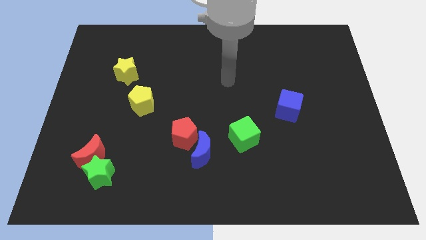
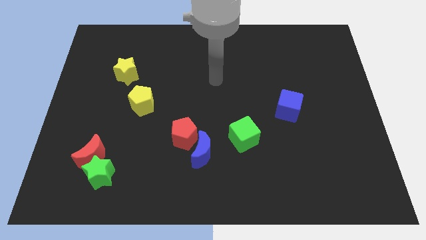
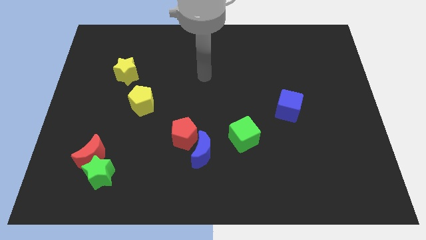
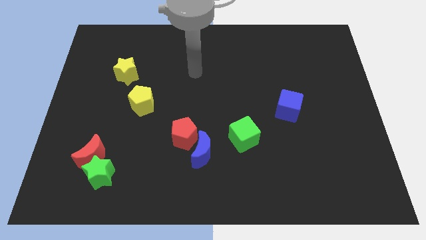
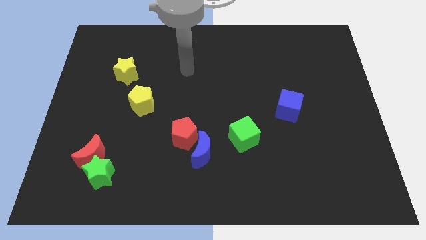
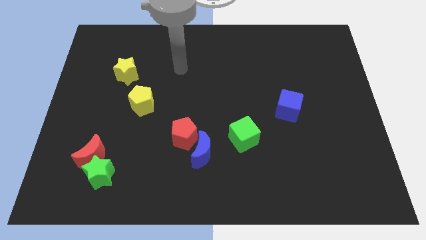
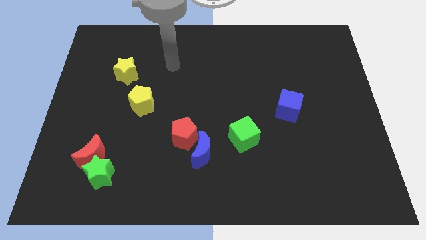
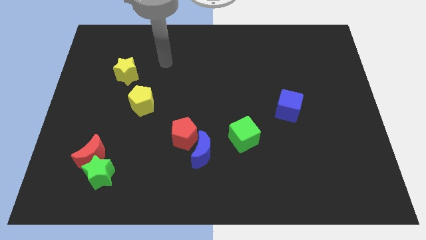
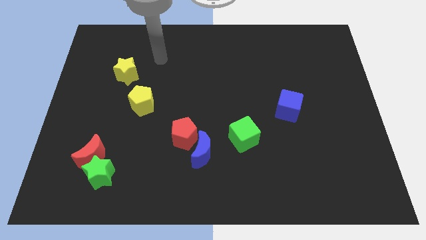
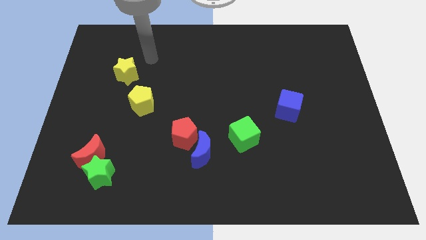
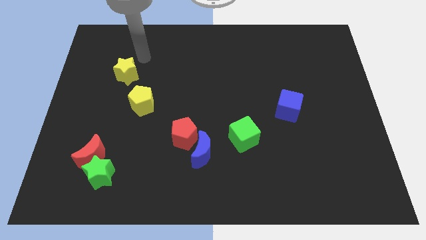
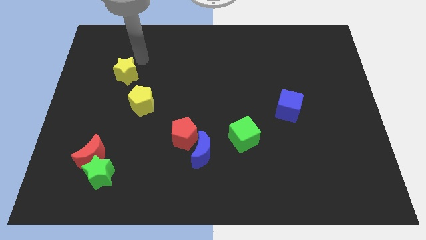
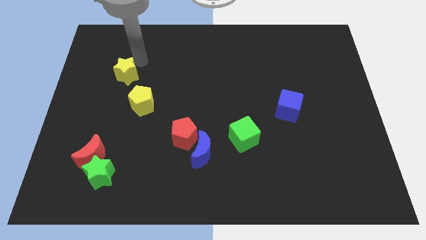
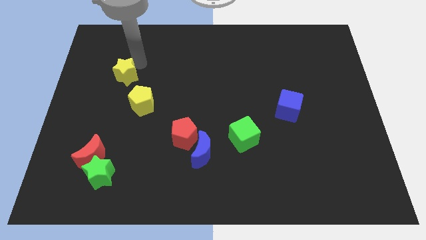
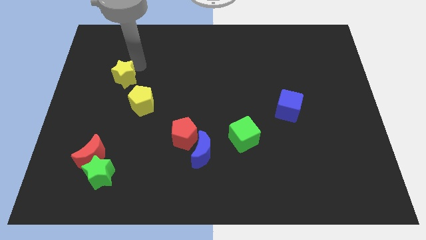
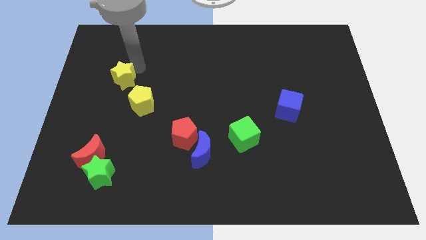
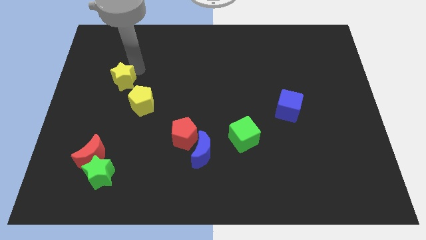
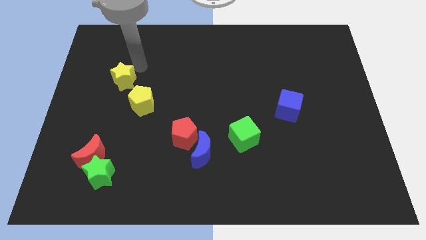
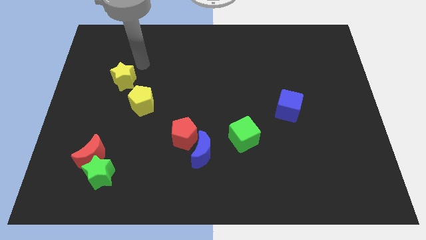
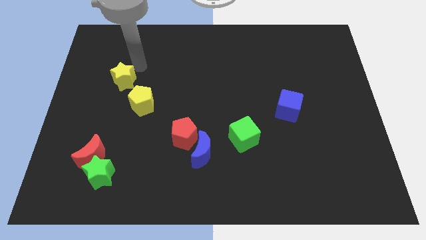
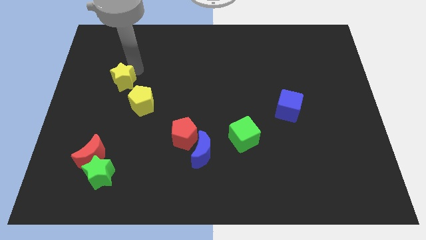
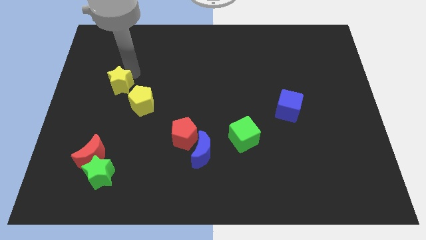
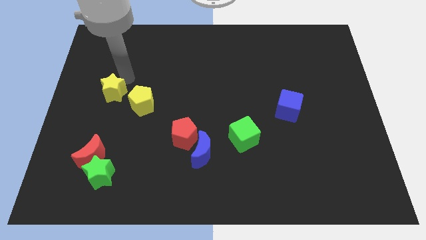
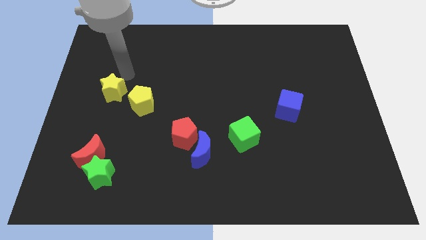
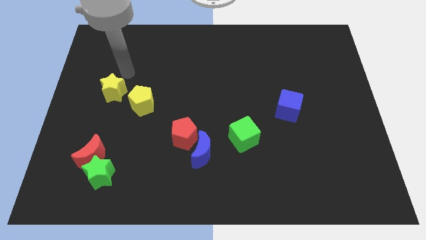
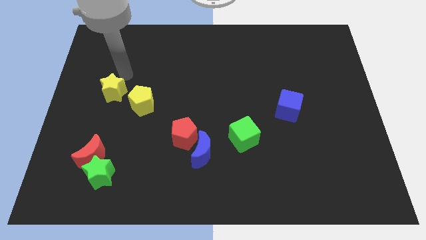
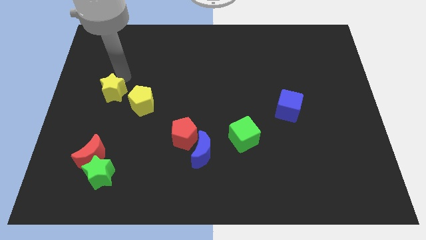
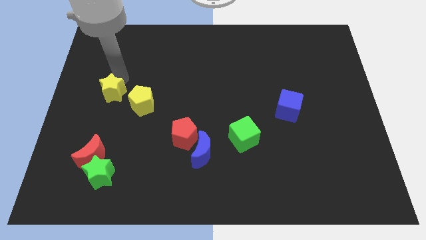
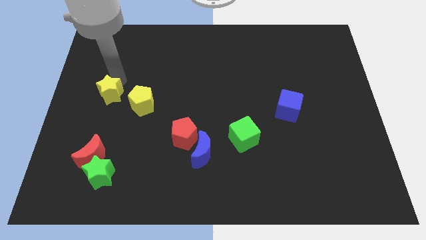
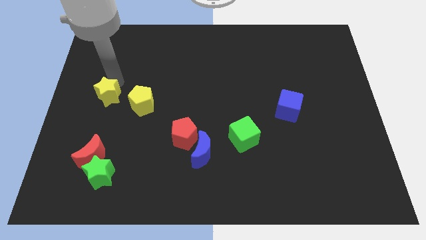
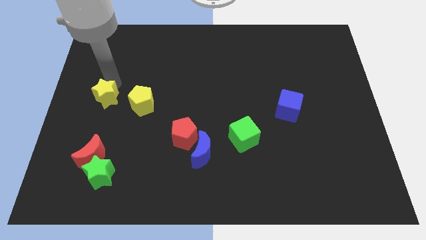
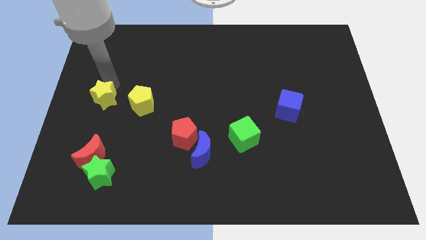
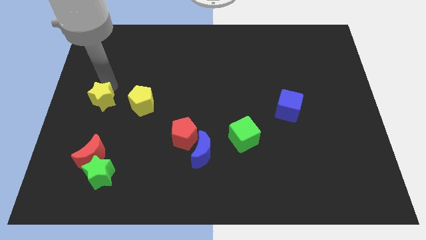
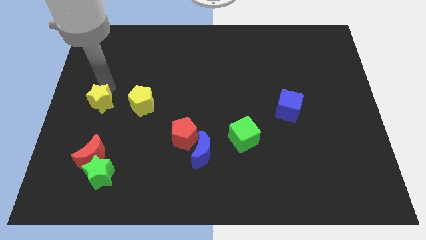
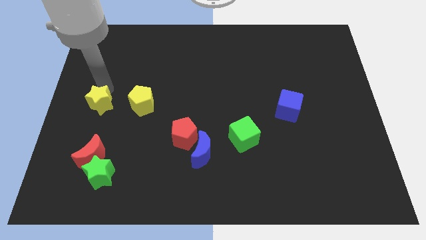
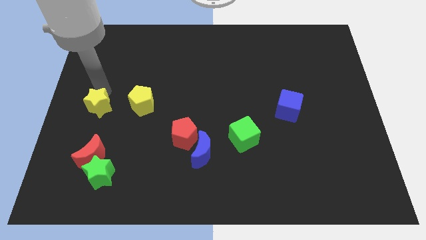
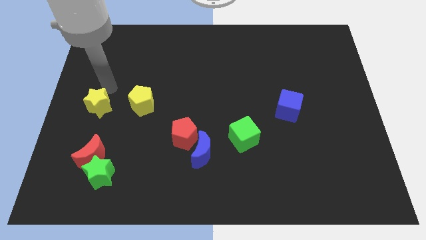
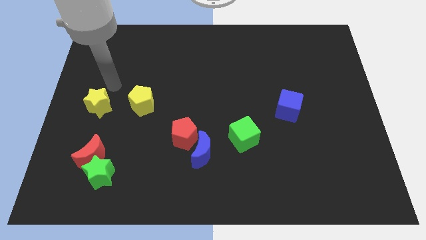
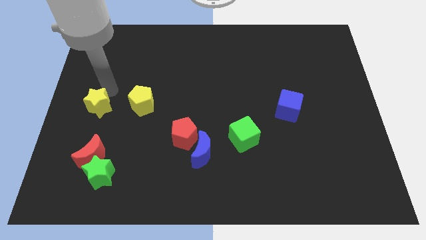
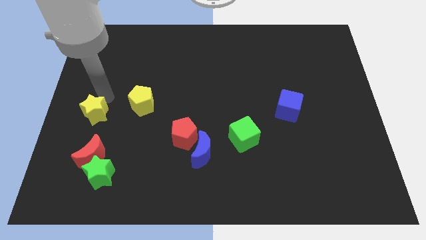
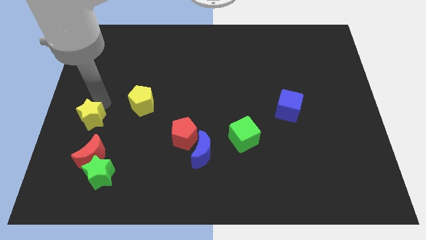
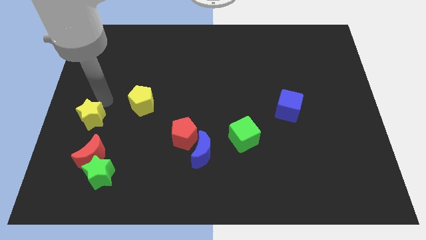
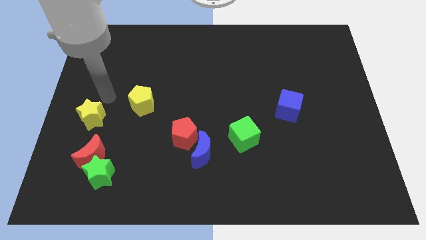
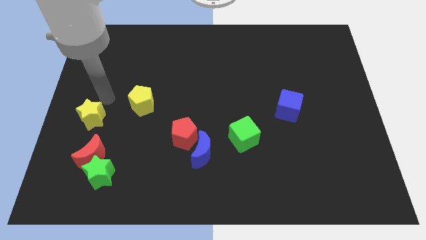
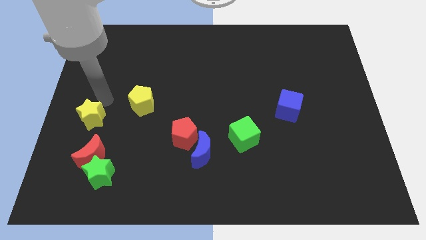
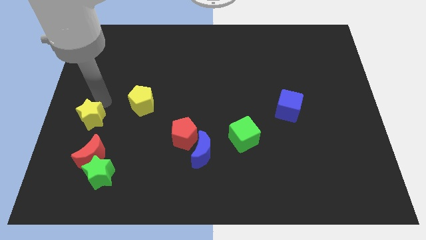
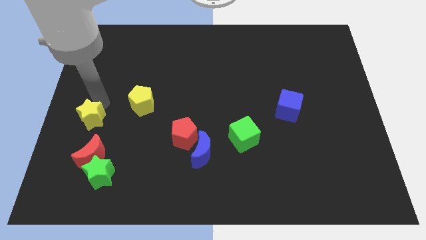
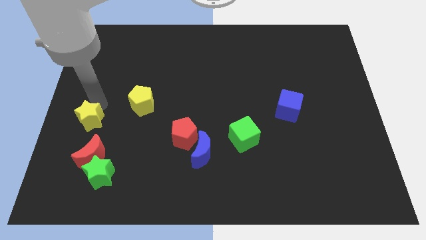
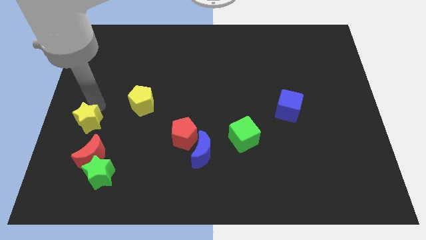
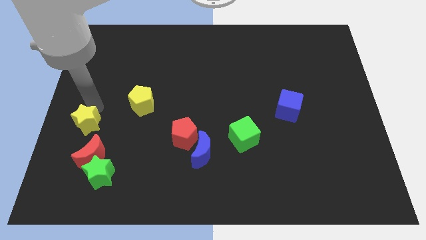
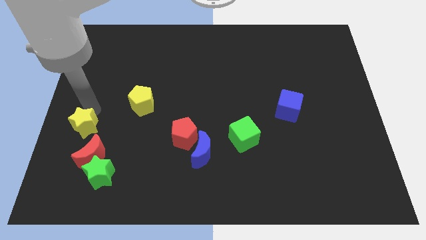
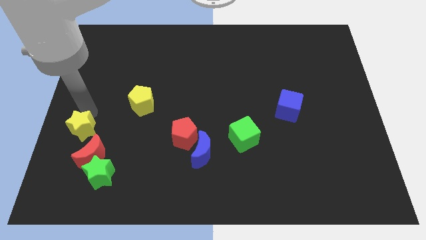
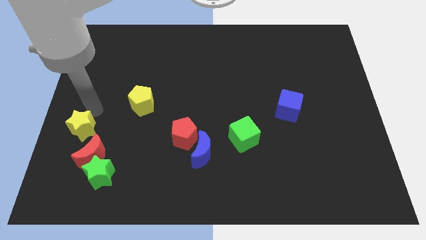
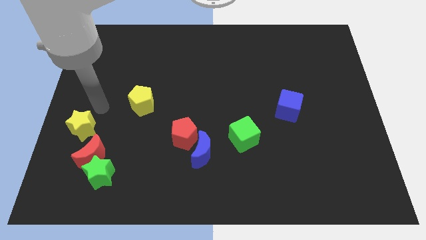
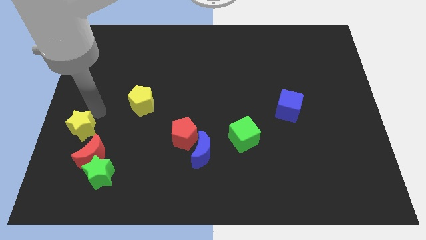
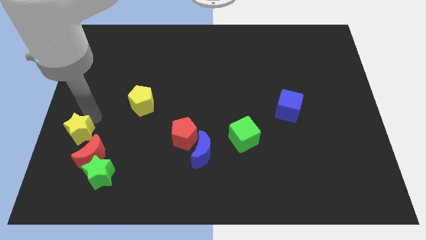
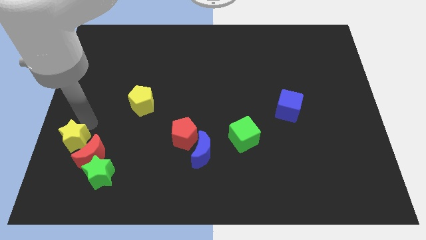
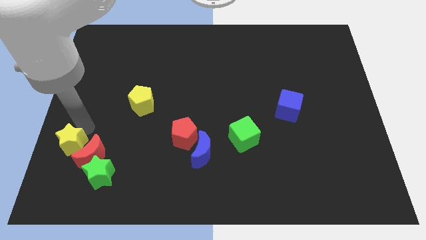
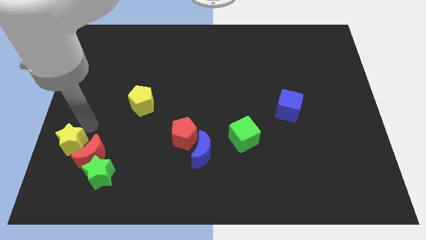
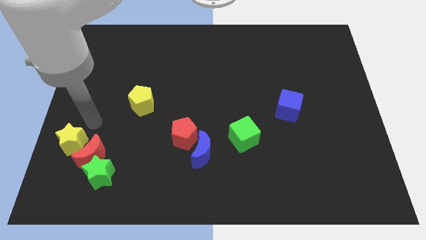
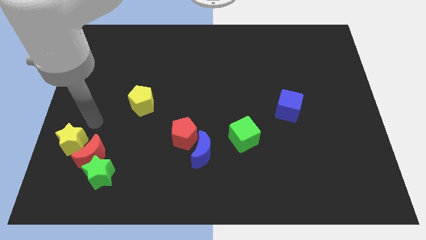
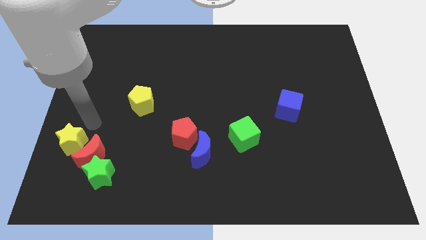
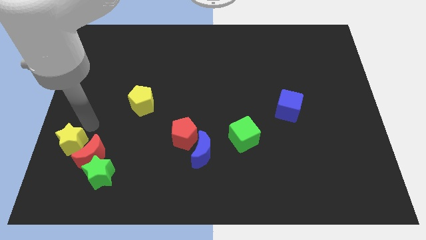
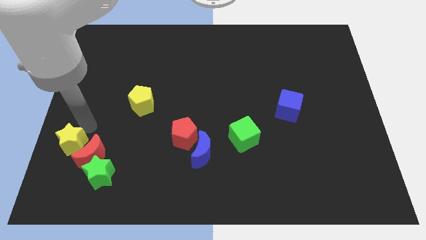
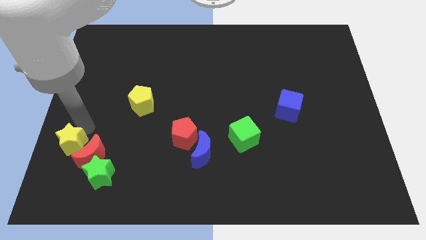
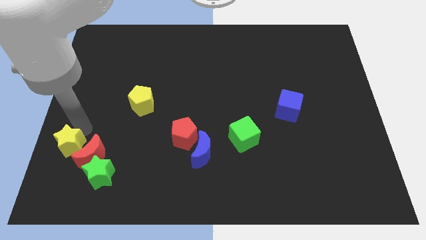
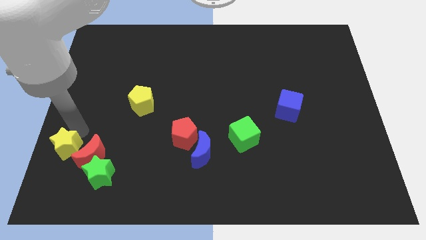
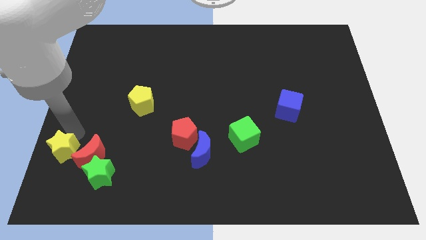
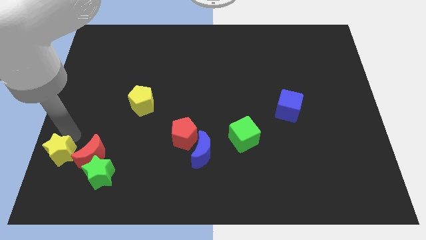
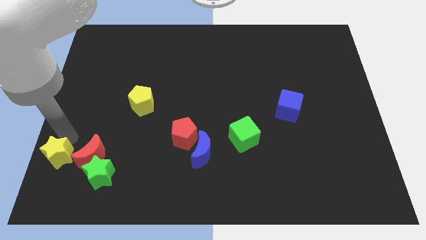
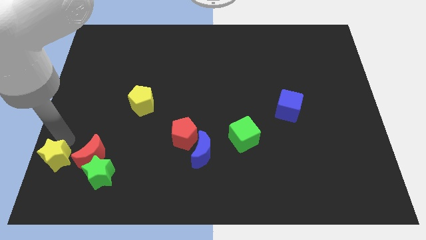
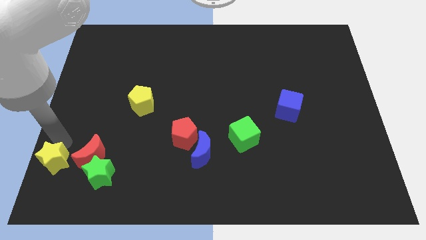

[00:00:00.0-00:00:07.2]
move the yellow star to the bottom left corner
